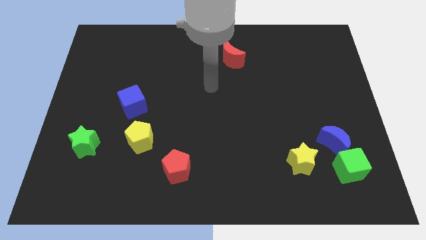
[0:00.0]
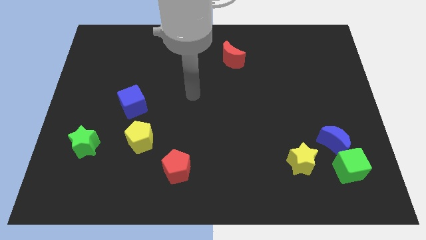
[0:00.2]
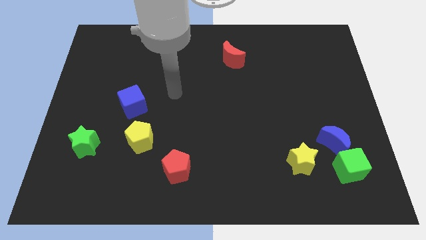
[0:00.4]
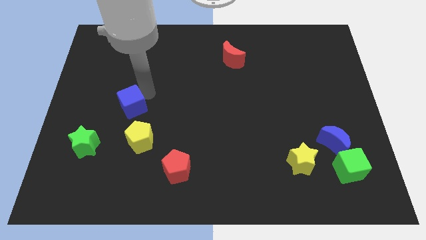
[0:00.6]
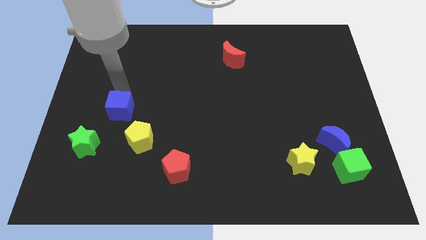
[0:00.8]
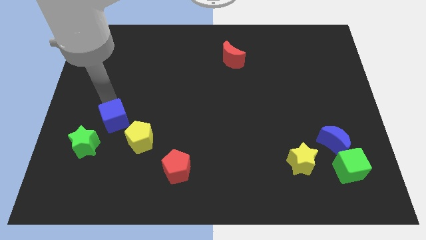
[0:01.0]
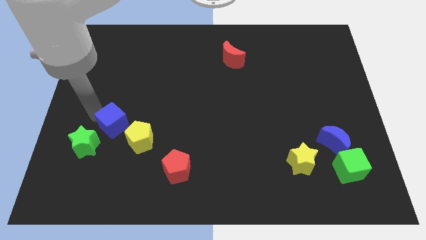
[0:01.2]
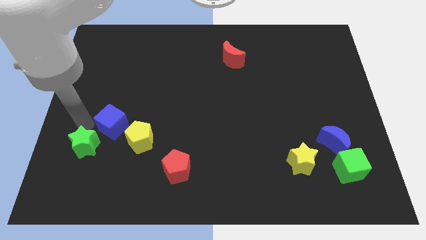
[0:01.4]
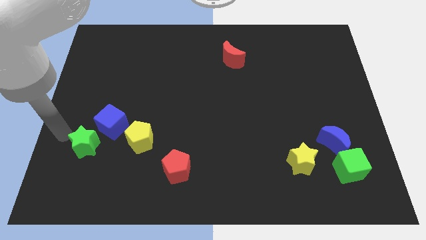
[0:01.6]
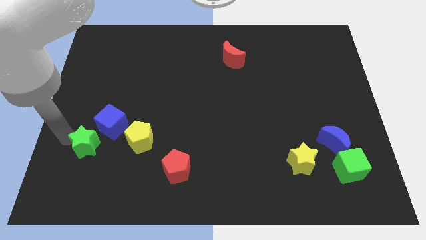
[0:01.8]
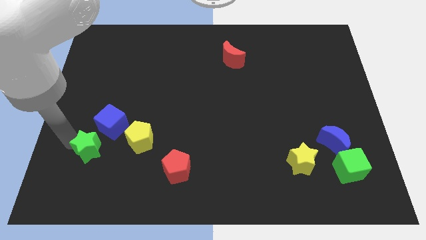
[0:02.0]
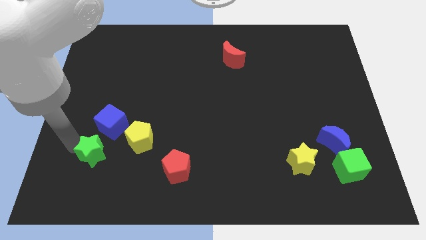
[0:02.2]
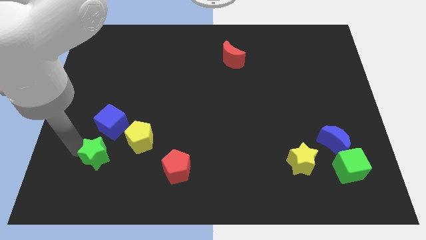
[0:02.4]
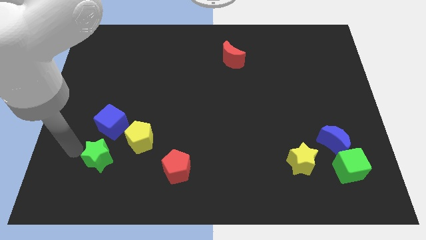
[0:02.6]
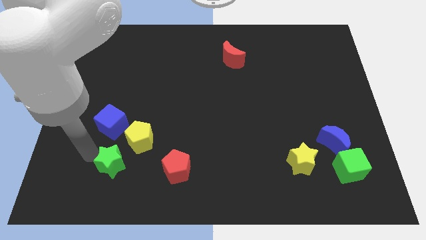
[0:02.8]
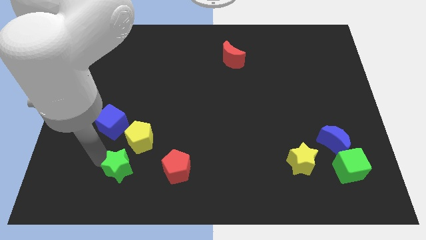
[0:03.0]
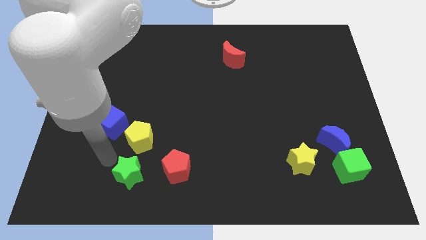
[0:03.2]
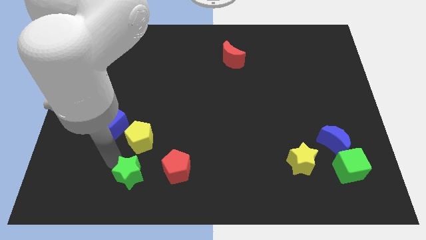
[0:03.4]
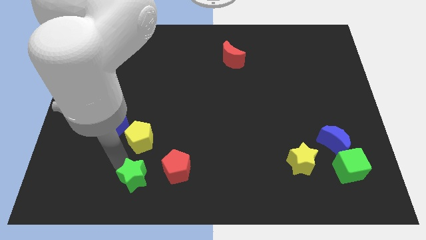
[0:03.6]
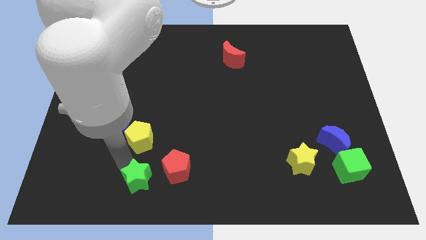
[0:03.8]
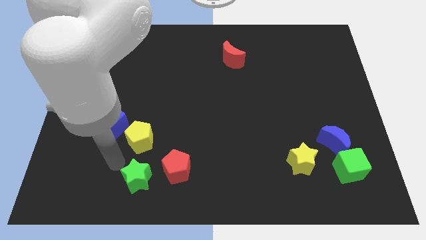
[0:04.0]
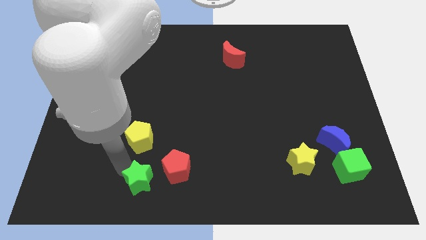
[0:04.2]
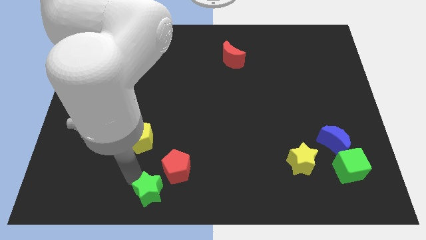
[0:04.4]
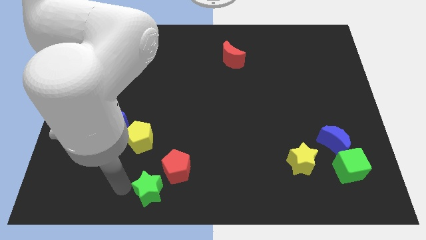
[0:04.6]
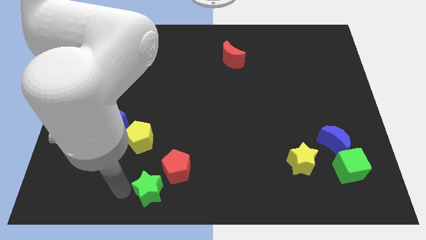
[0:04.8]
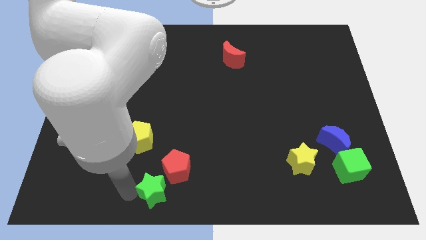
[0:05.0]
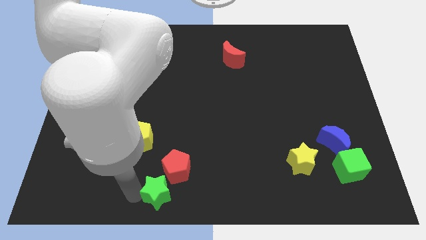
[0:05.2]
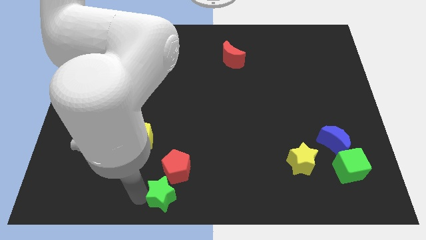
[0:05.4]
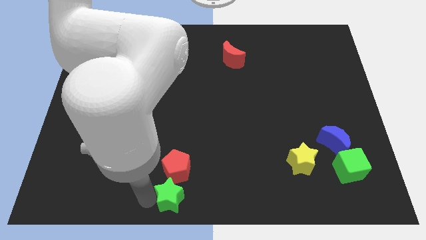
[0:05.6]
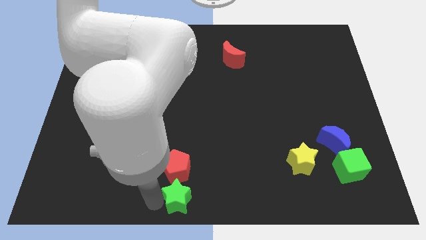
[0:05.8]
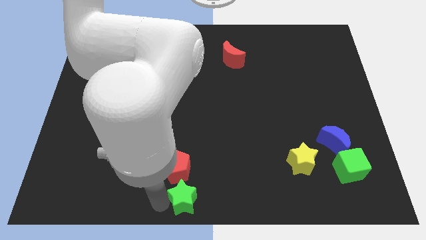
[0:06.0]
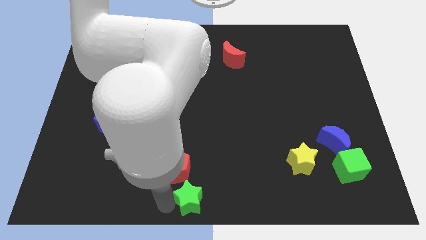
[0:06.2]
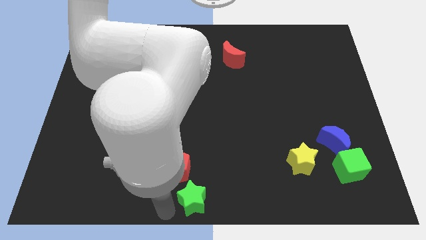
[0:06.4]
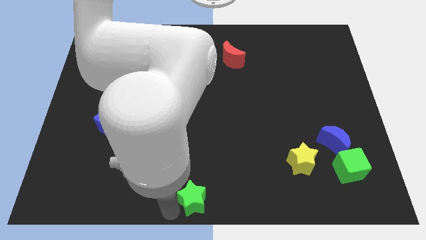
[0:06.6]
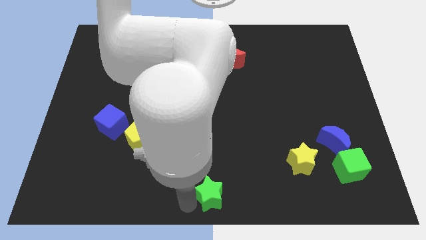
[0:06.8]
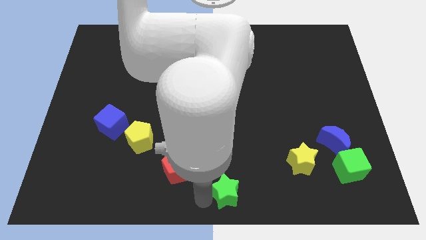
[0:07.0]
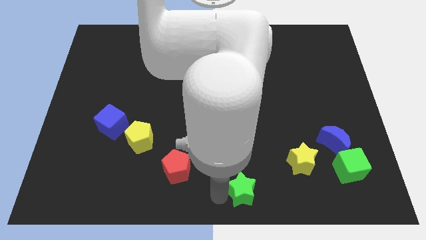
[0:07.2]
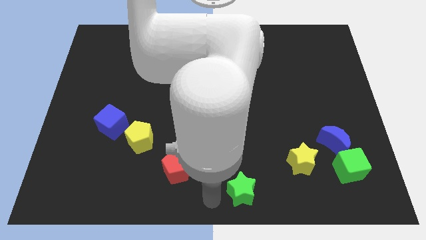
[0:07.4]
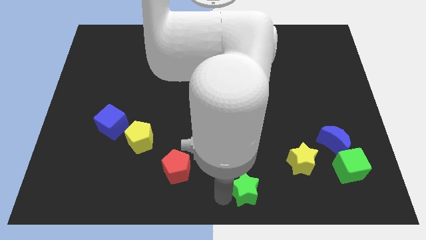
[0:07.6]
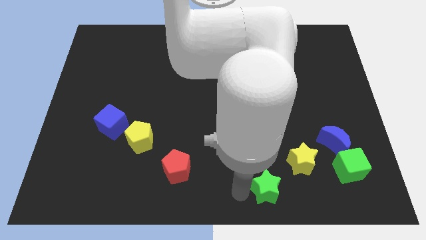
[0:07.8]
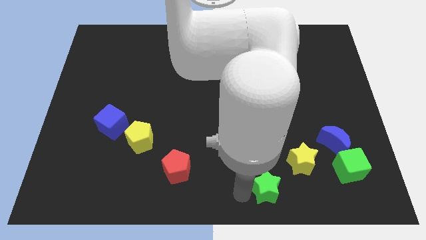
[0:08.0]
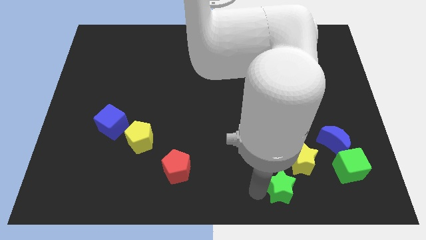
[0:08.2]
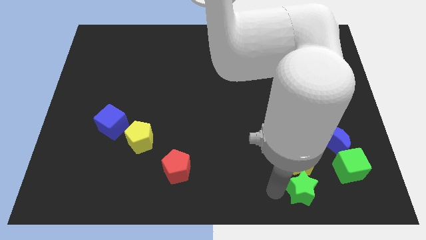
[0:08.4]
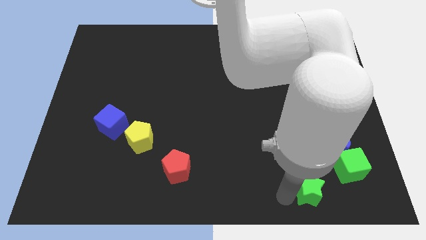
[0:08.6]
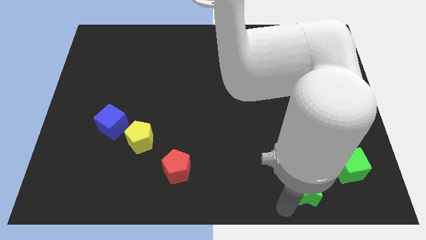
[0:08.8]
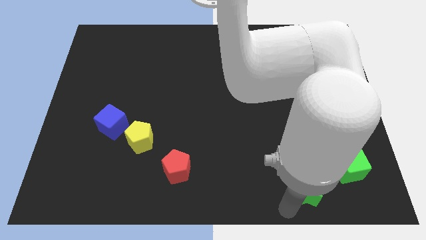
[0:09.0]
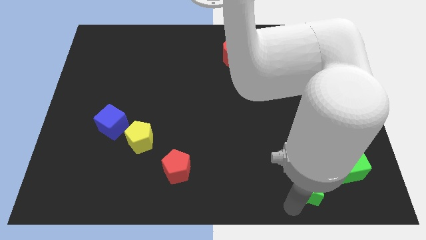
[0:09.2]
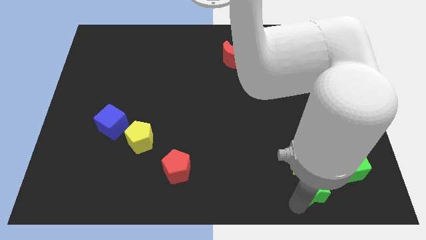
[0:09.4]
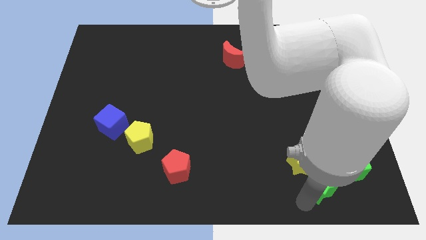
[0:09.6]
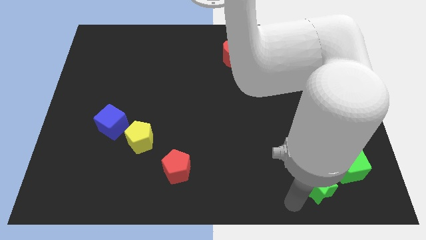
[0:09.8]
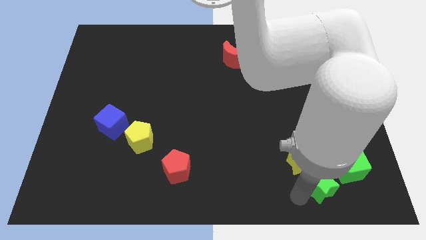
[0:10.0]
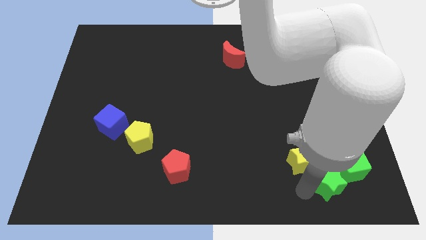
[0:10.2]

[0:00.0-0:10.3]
push the green star next to the green cube

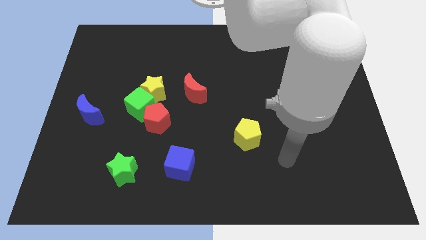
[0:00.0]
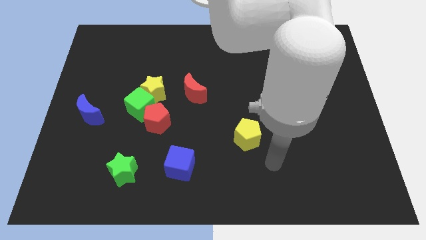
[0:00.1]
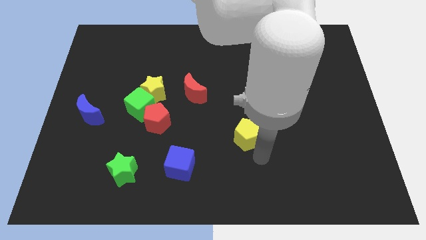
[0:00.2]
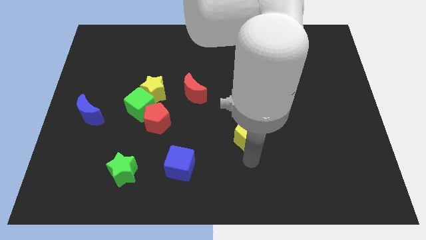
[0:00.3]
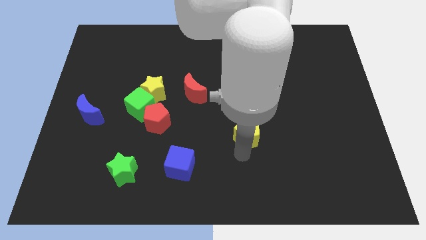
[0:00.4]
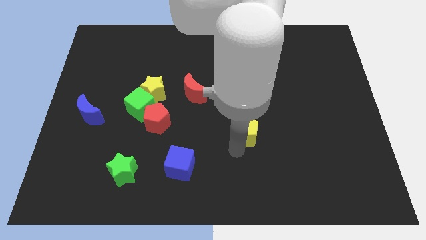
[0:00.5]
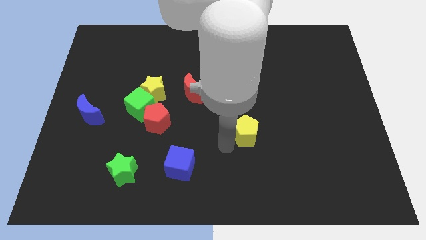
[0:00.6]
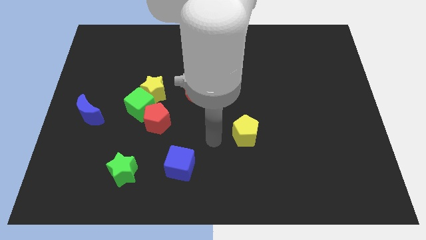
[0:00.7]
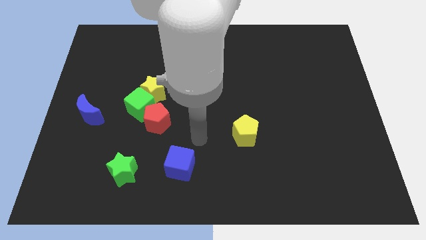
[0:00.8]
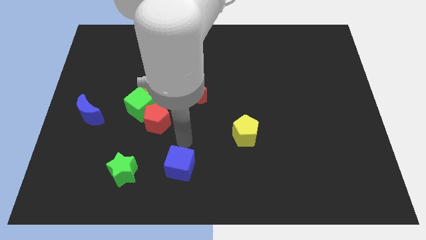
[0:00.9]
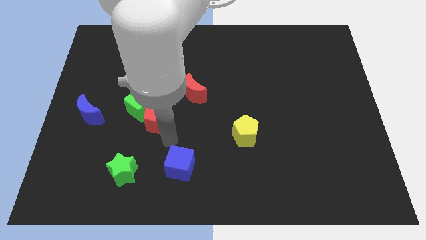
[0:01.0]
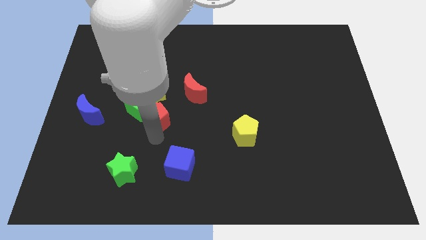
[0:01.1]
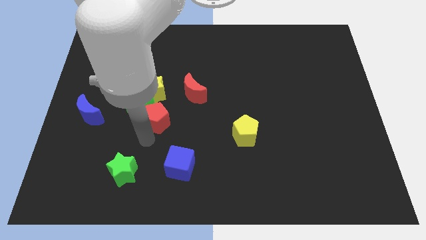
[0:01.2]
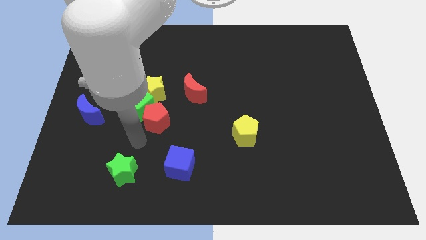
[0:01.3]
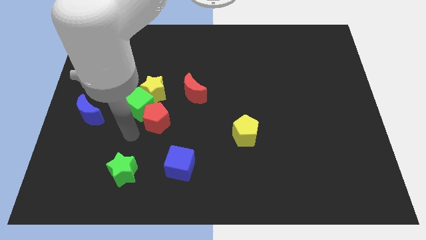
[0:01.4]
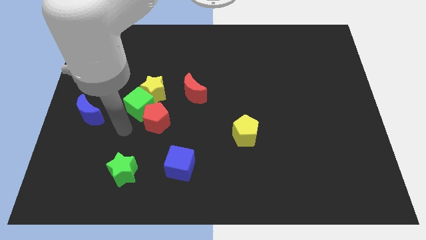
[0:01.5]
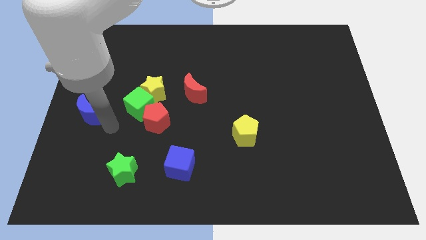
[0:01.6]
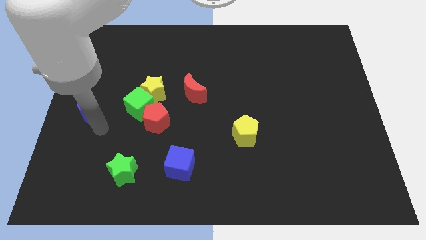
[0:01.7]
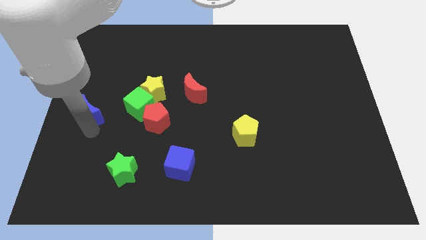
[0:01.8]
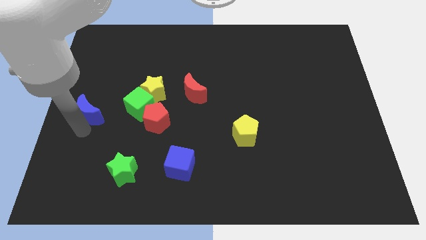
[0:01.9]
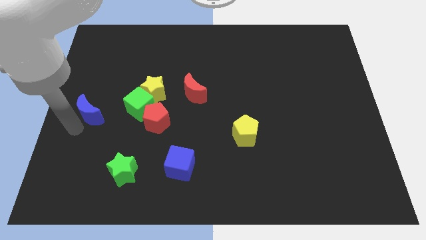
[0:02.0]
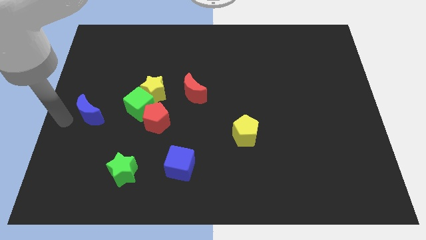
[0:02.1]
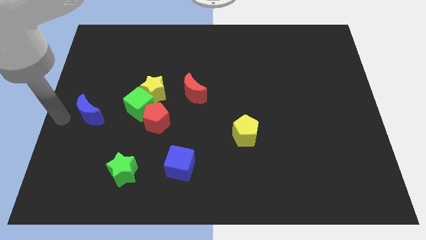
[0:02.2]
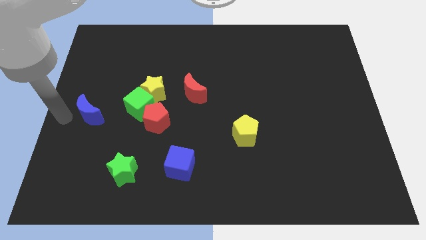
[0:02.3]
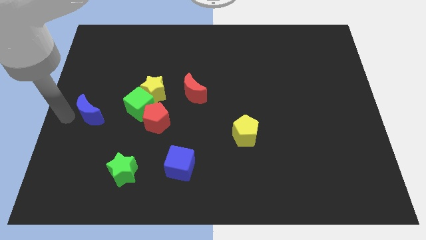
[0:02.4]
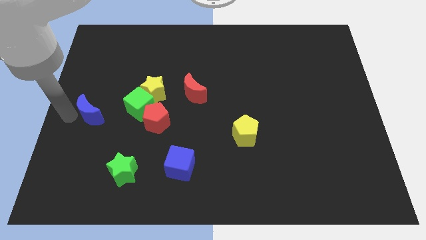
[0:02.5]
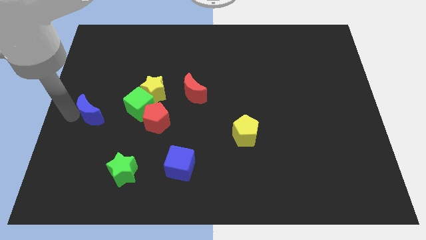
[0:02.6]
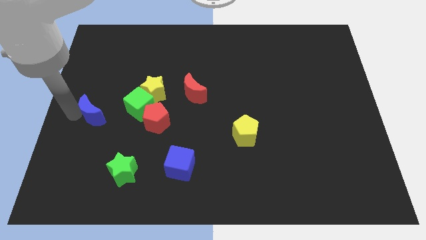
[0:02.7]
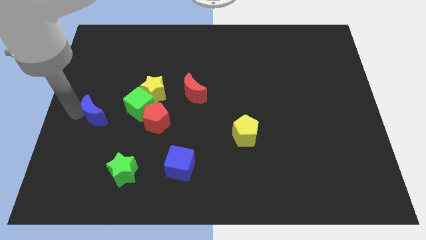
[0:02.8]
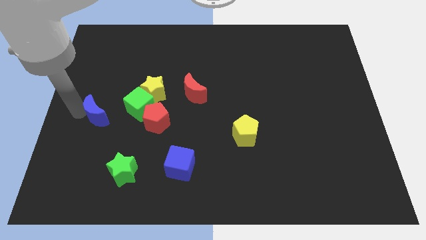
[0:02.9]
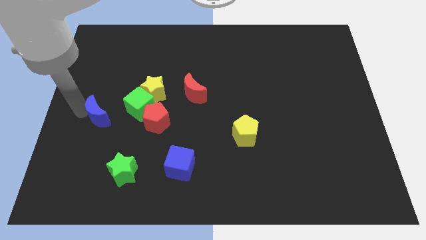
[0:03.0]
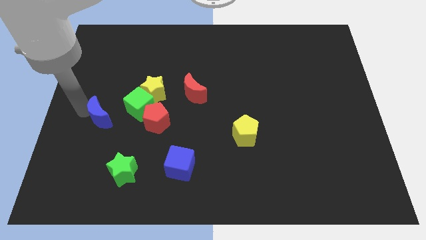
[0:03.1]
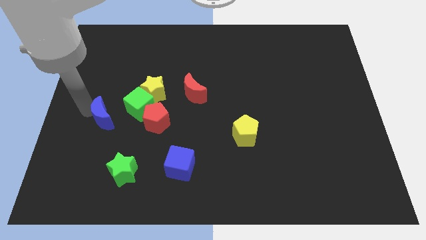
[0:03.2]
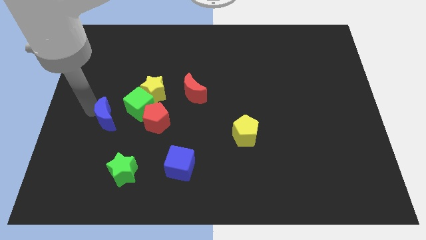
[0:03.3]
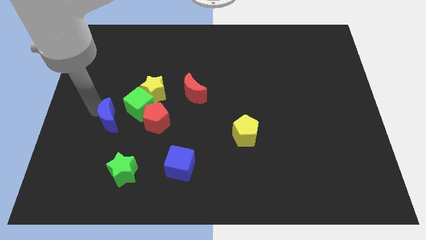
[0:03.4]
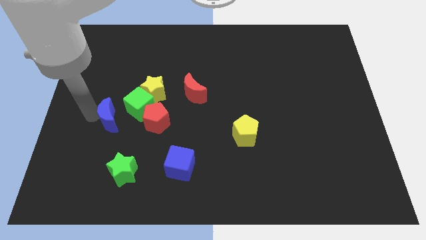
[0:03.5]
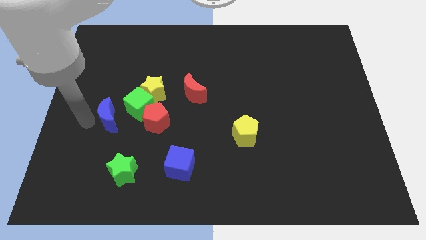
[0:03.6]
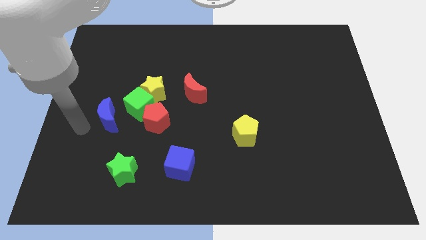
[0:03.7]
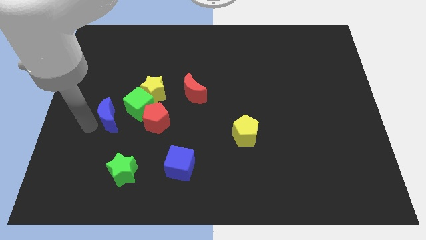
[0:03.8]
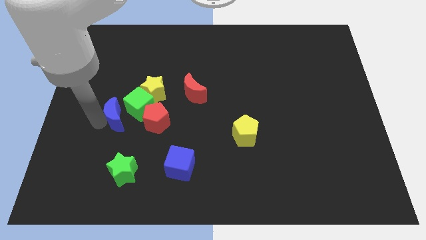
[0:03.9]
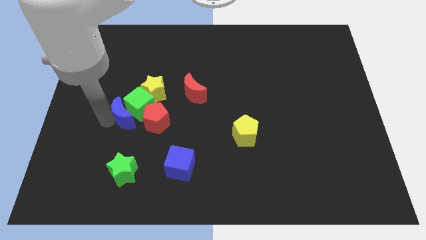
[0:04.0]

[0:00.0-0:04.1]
slide the blue moon to the green cube
